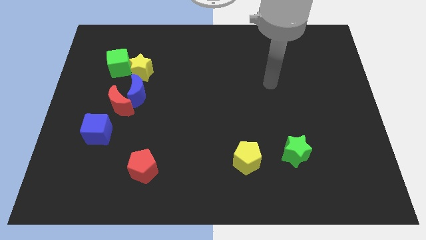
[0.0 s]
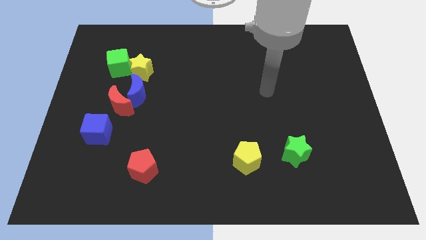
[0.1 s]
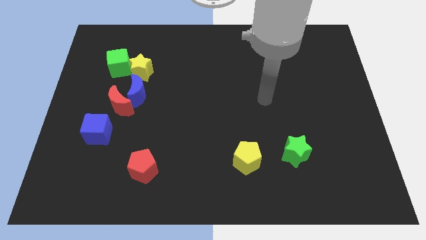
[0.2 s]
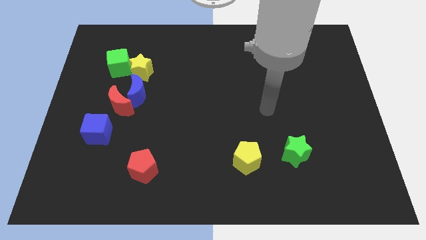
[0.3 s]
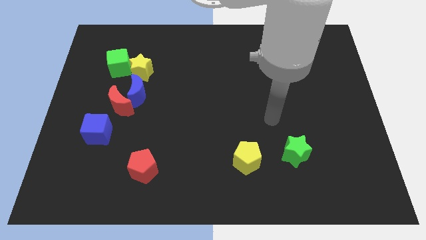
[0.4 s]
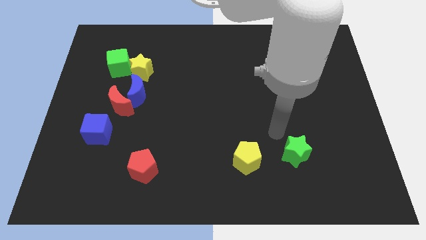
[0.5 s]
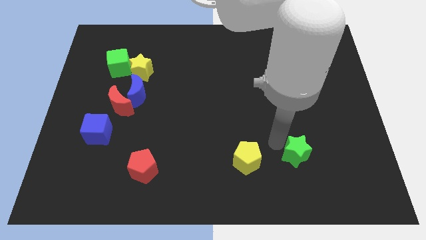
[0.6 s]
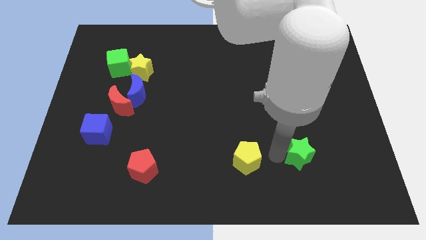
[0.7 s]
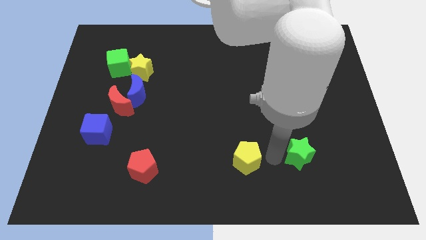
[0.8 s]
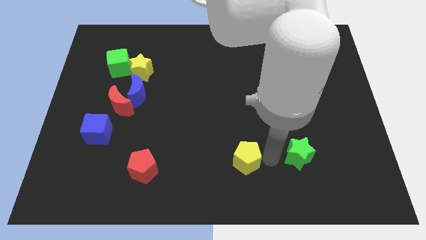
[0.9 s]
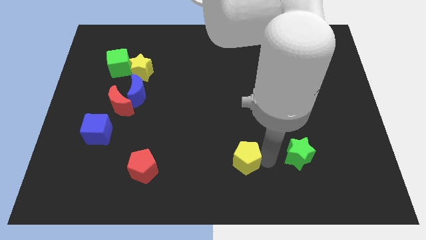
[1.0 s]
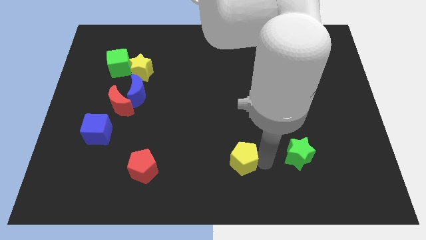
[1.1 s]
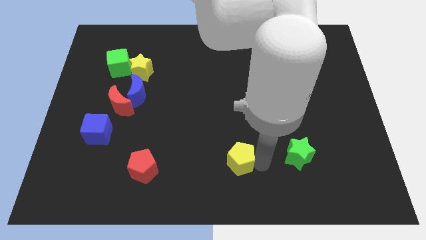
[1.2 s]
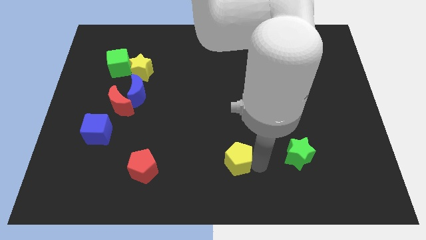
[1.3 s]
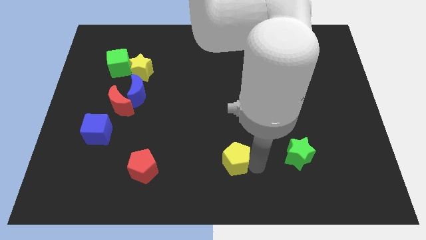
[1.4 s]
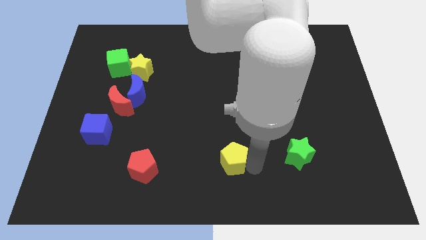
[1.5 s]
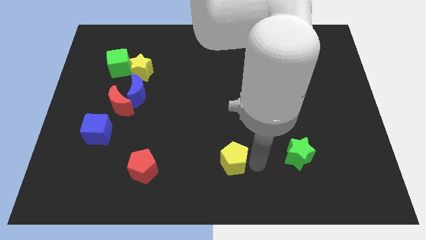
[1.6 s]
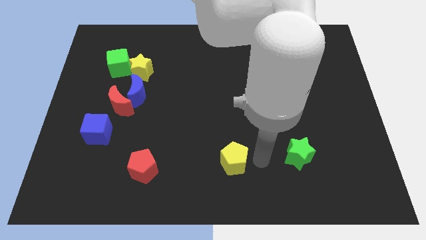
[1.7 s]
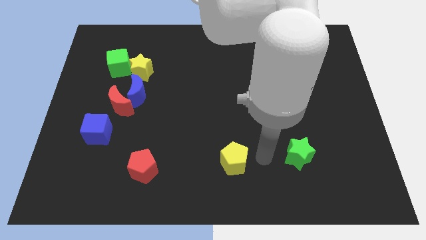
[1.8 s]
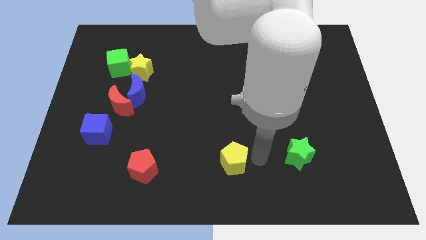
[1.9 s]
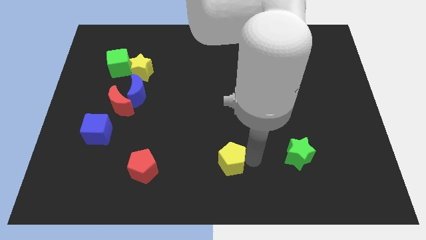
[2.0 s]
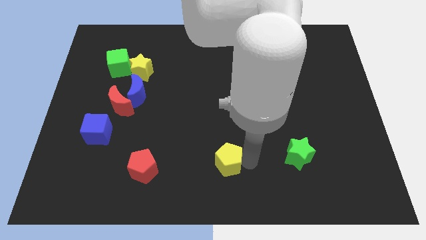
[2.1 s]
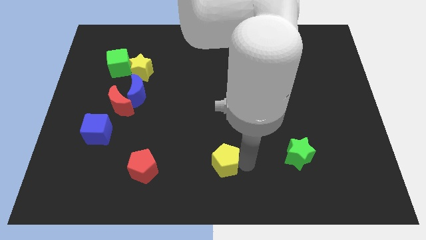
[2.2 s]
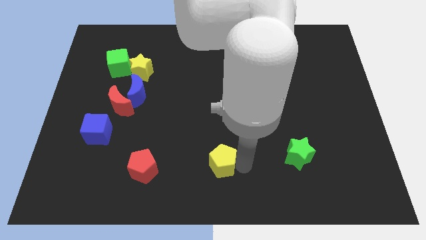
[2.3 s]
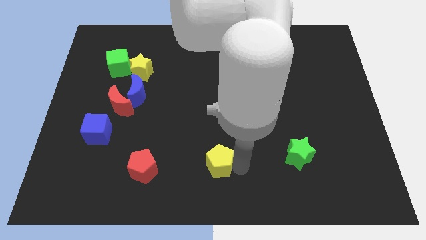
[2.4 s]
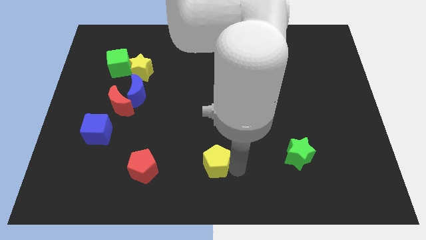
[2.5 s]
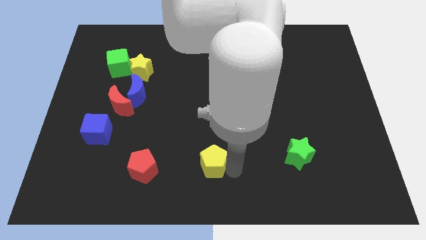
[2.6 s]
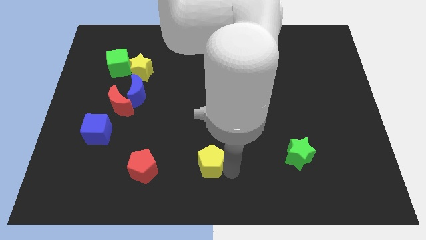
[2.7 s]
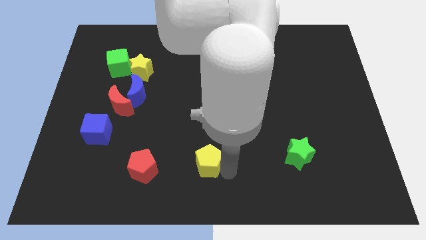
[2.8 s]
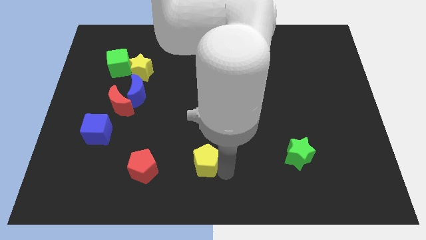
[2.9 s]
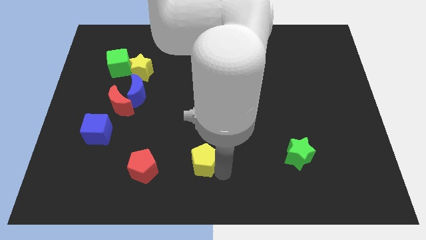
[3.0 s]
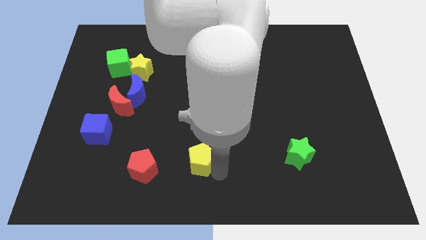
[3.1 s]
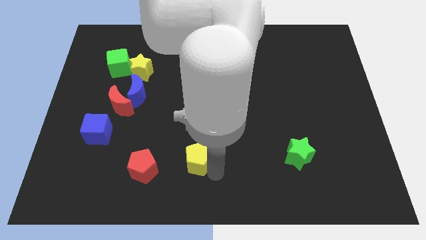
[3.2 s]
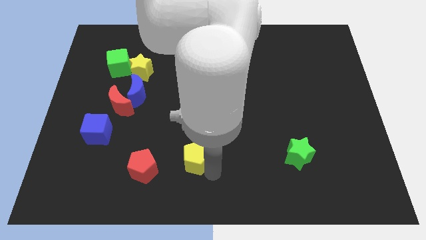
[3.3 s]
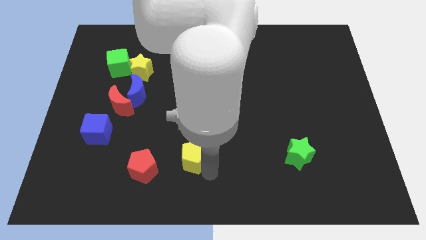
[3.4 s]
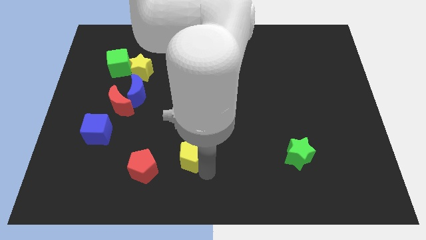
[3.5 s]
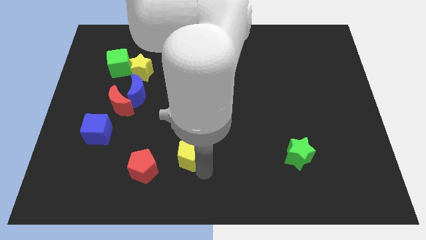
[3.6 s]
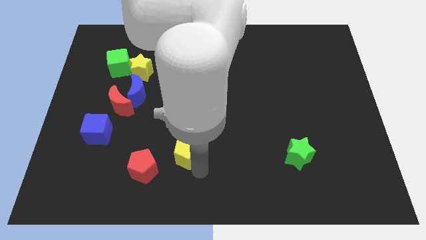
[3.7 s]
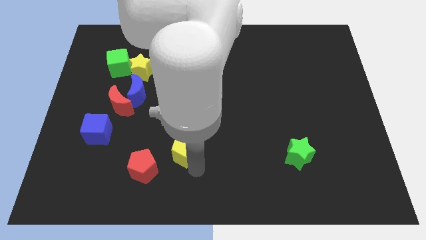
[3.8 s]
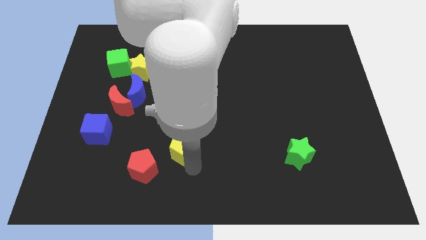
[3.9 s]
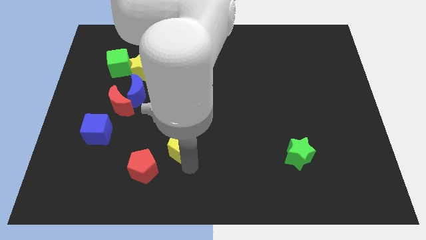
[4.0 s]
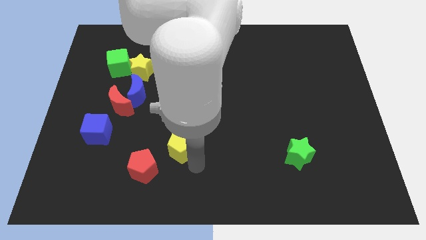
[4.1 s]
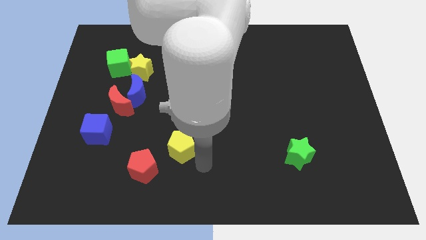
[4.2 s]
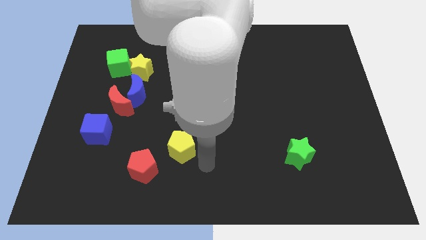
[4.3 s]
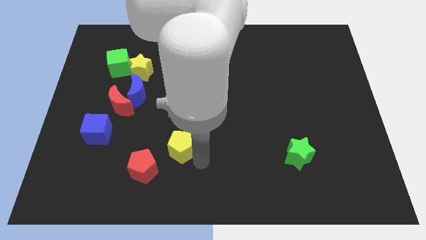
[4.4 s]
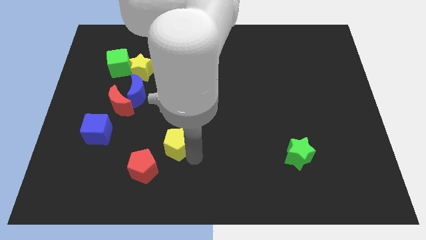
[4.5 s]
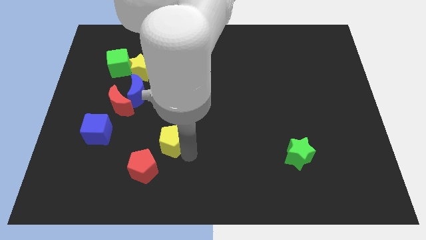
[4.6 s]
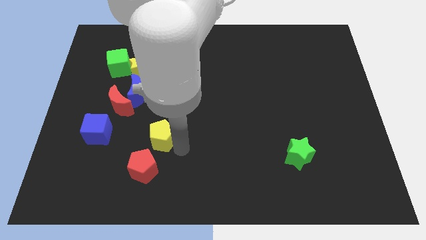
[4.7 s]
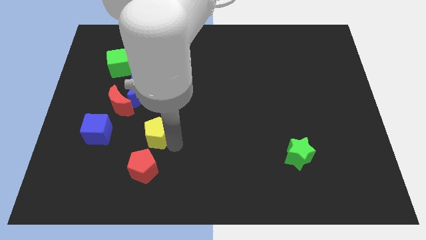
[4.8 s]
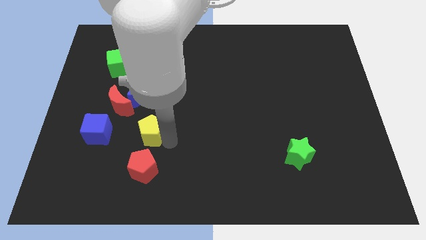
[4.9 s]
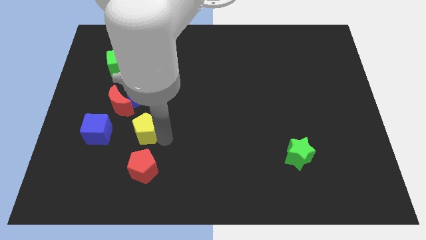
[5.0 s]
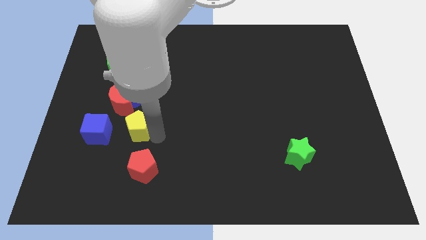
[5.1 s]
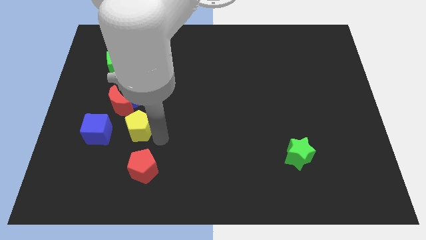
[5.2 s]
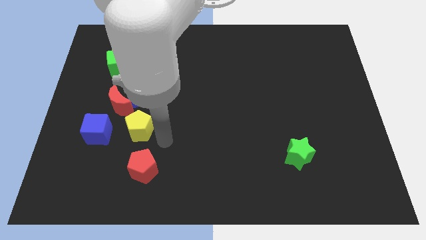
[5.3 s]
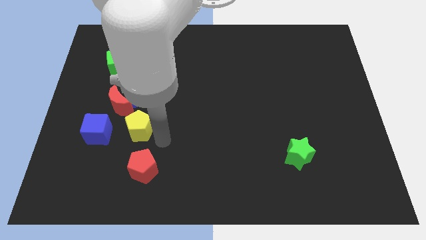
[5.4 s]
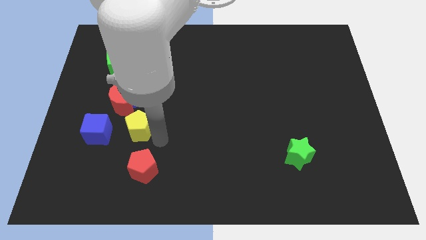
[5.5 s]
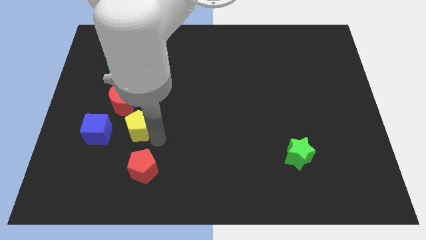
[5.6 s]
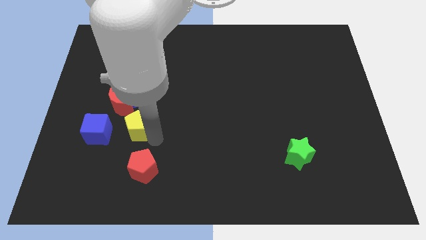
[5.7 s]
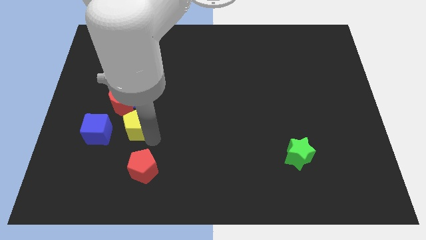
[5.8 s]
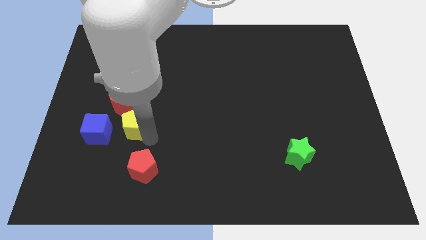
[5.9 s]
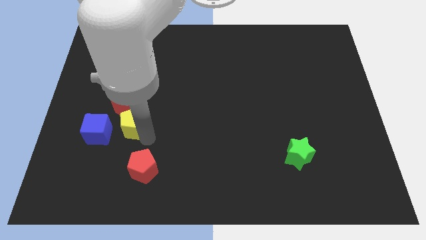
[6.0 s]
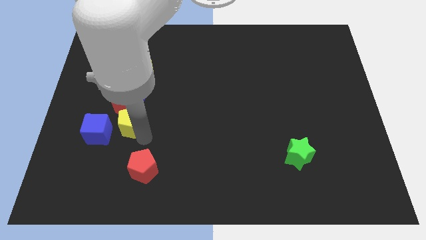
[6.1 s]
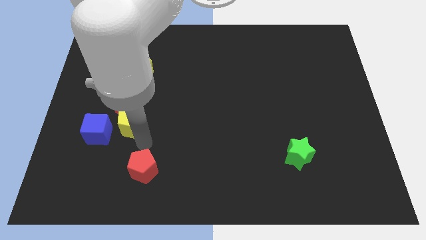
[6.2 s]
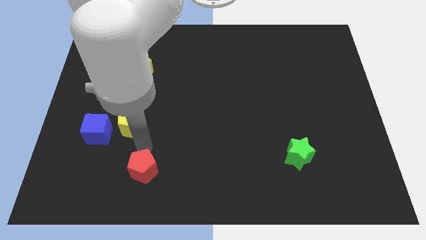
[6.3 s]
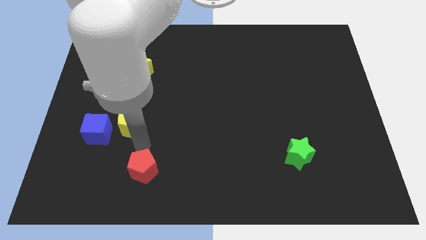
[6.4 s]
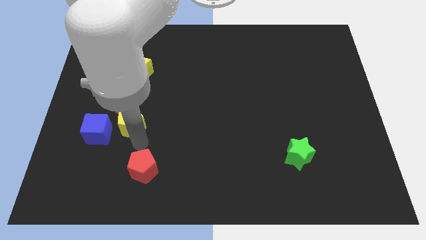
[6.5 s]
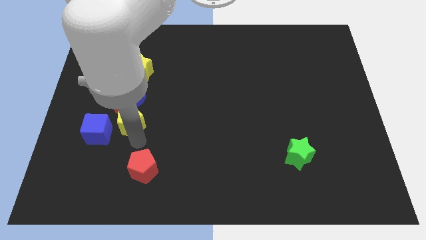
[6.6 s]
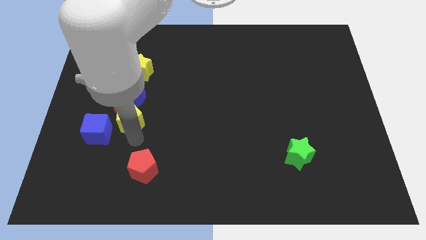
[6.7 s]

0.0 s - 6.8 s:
slide the yellow pentagon close to the red moon
